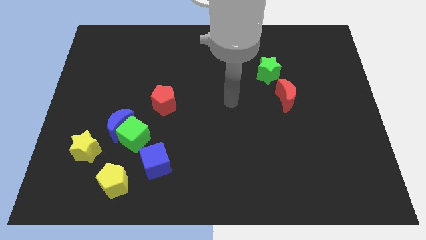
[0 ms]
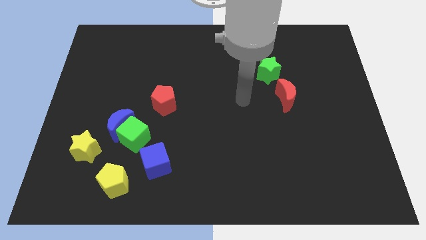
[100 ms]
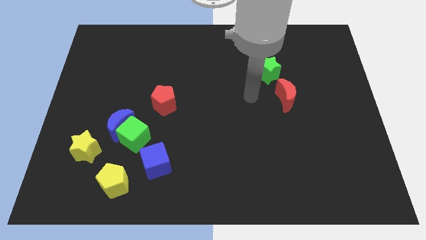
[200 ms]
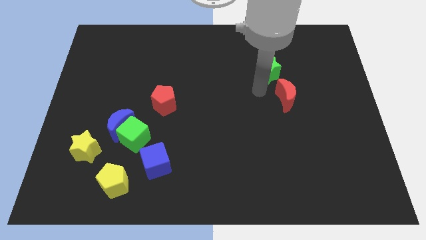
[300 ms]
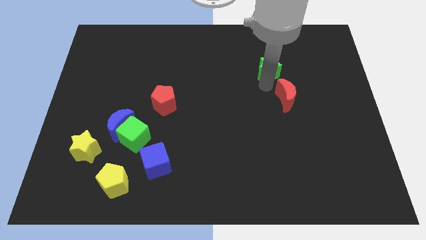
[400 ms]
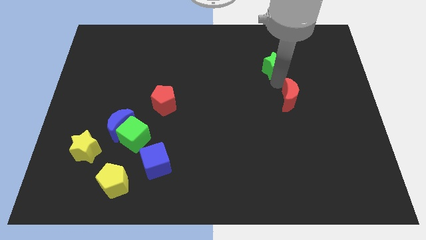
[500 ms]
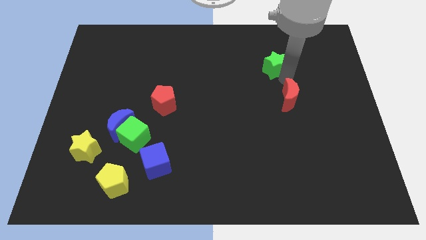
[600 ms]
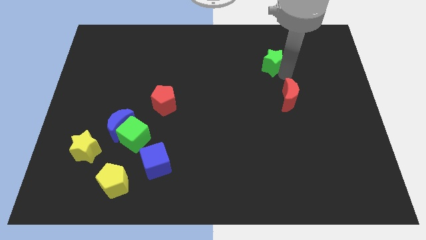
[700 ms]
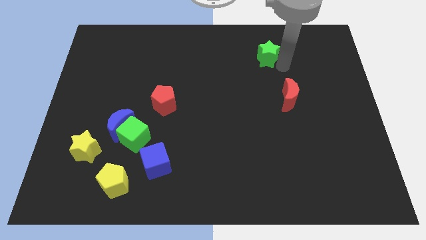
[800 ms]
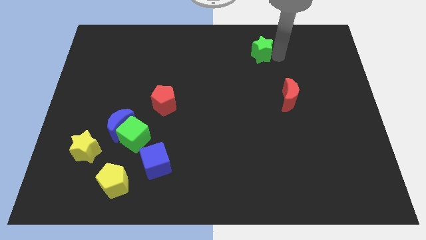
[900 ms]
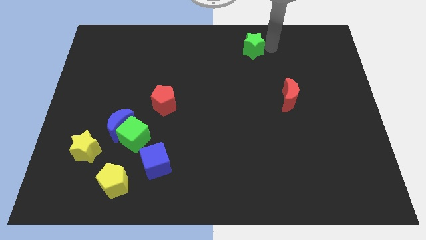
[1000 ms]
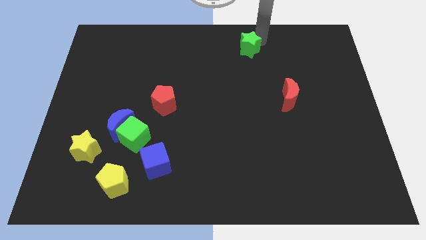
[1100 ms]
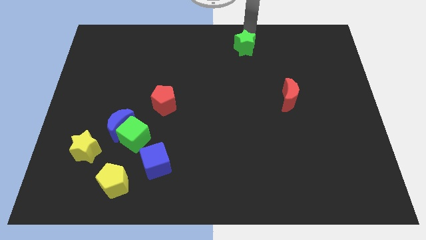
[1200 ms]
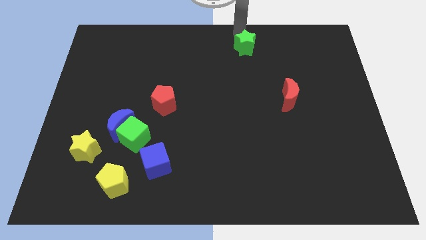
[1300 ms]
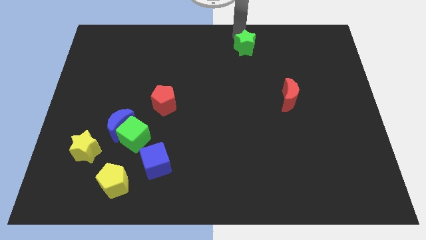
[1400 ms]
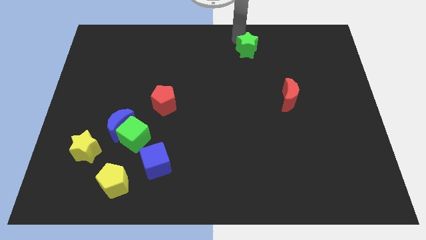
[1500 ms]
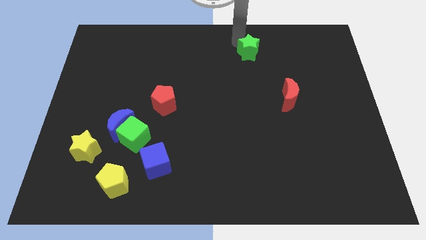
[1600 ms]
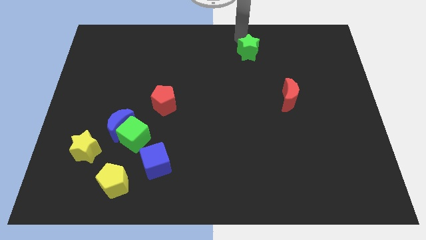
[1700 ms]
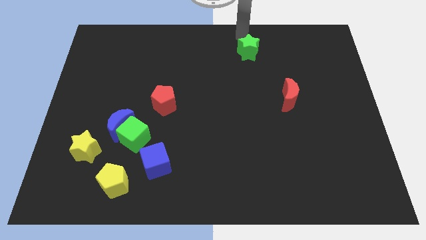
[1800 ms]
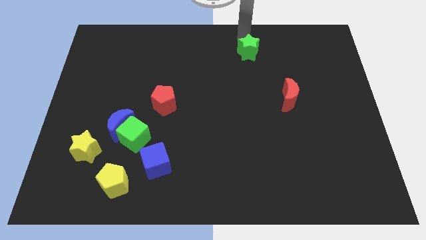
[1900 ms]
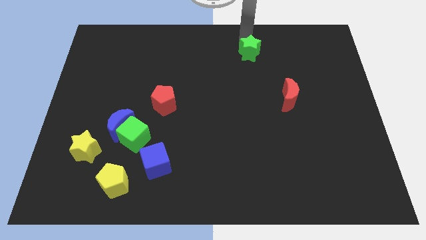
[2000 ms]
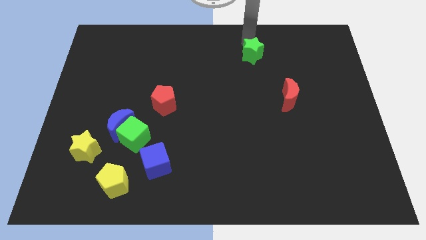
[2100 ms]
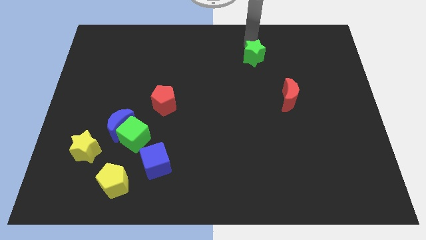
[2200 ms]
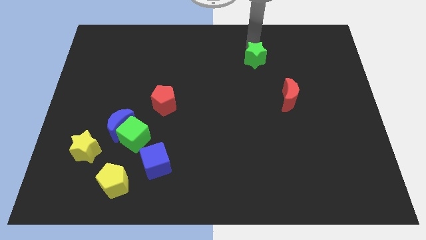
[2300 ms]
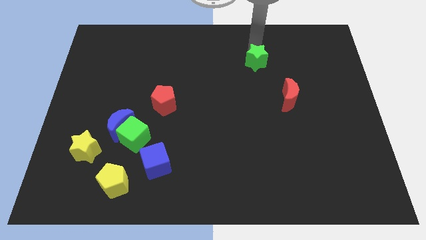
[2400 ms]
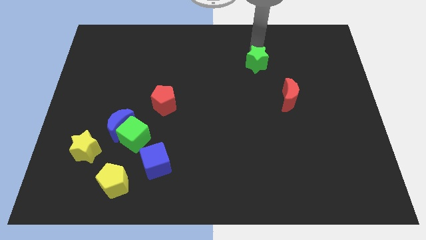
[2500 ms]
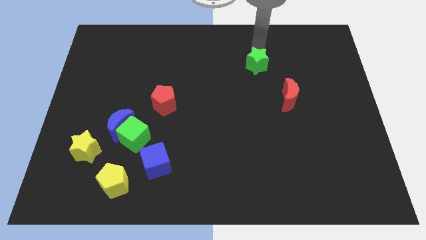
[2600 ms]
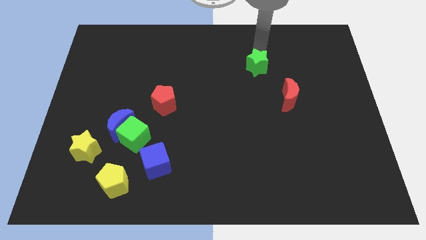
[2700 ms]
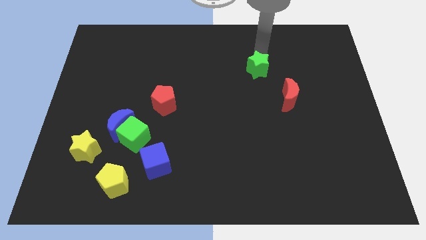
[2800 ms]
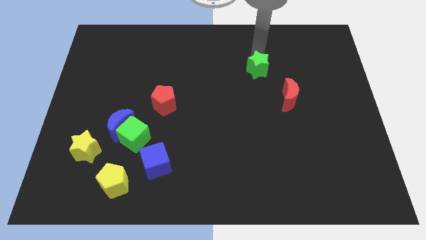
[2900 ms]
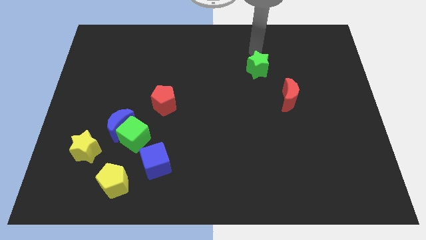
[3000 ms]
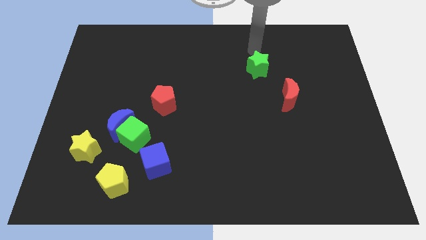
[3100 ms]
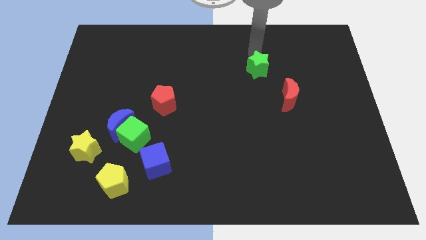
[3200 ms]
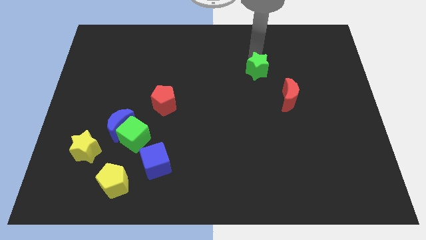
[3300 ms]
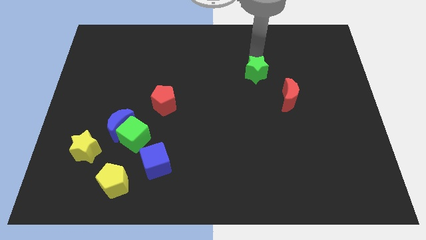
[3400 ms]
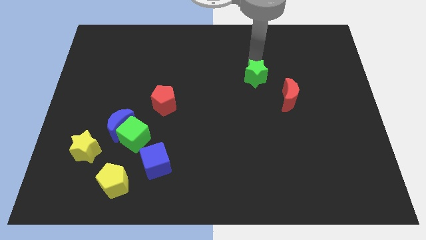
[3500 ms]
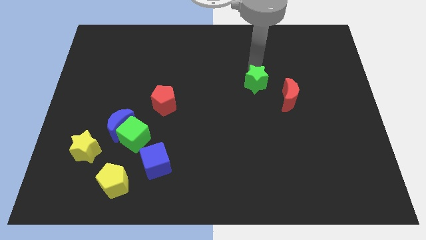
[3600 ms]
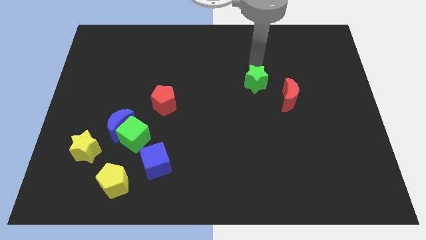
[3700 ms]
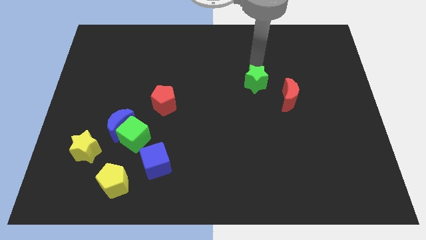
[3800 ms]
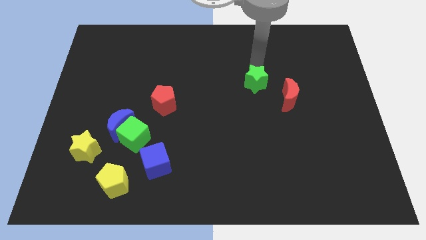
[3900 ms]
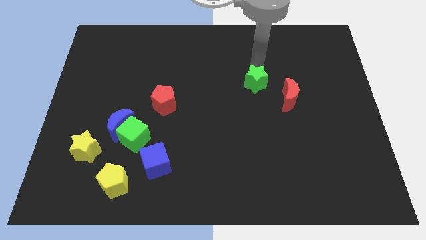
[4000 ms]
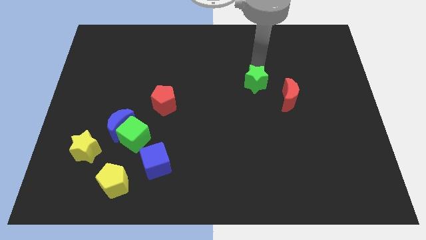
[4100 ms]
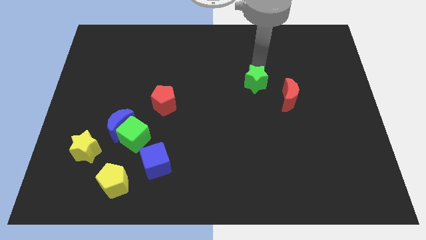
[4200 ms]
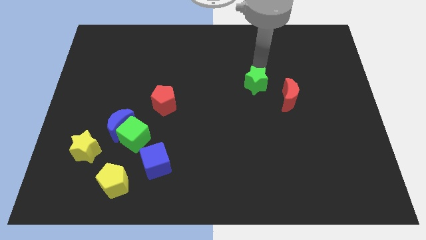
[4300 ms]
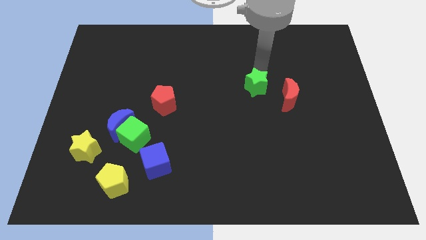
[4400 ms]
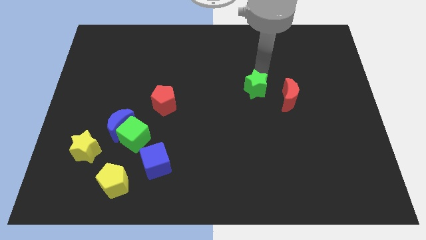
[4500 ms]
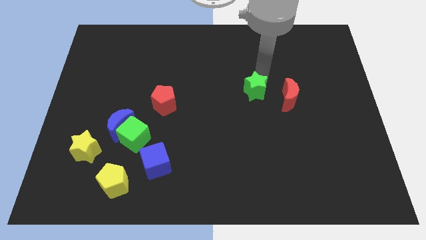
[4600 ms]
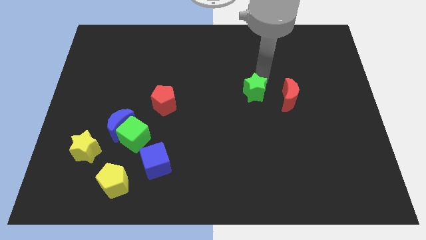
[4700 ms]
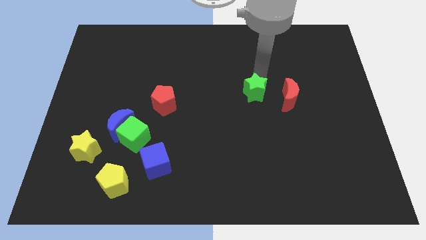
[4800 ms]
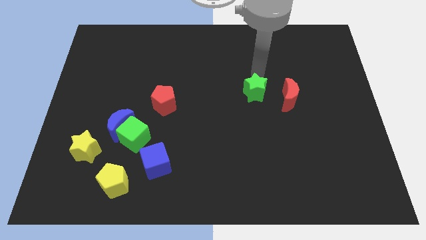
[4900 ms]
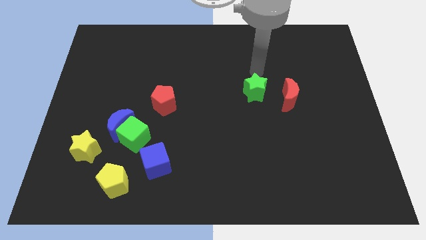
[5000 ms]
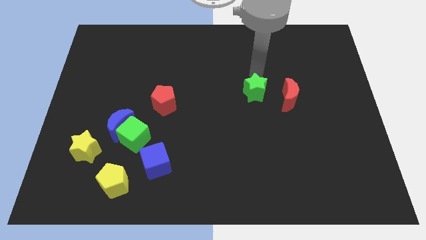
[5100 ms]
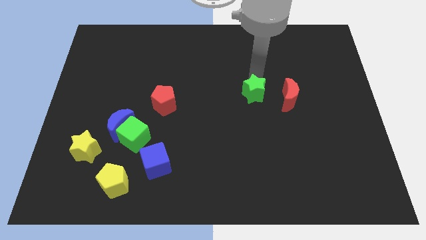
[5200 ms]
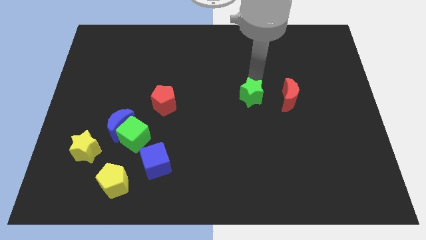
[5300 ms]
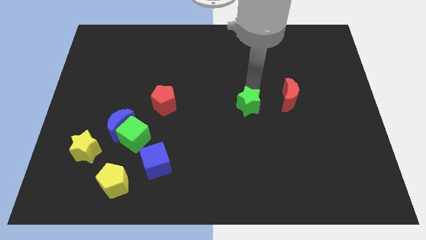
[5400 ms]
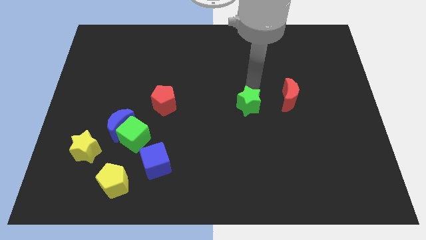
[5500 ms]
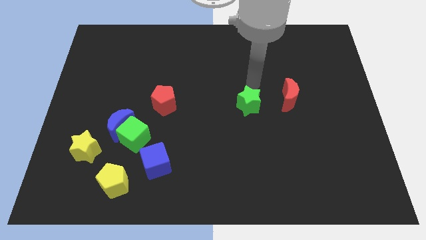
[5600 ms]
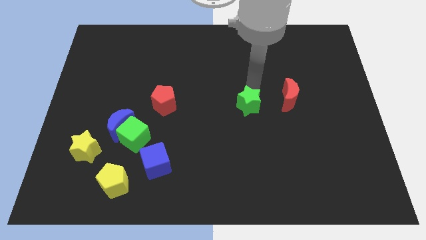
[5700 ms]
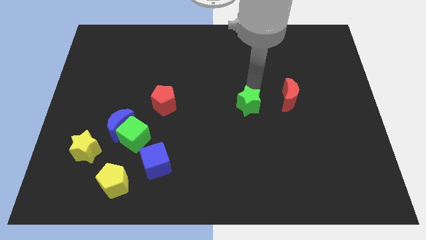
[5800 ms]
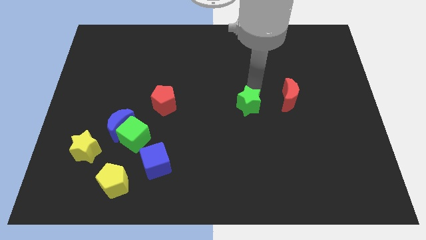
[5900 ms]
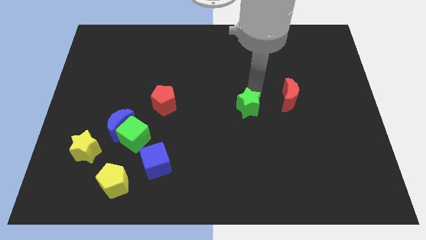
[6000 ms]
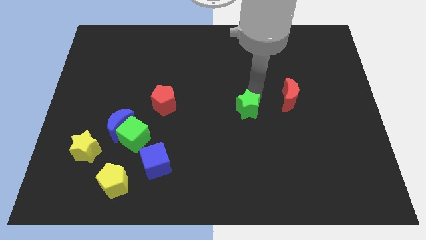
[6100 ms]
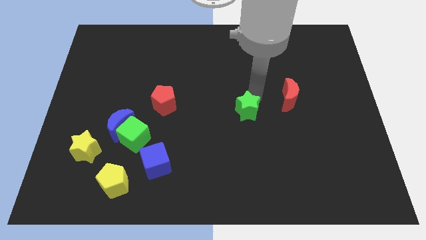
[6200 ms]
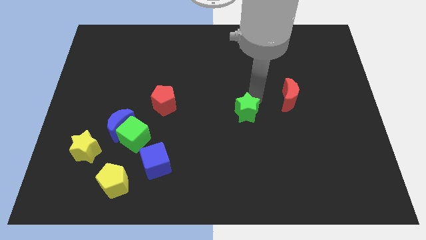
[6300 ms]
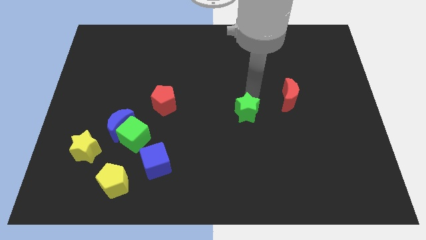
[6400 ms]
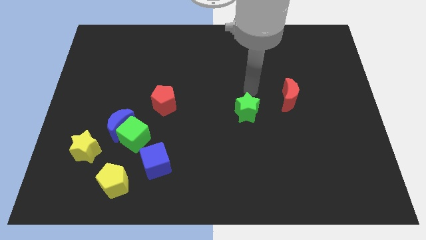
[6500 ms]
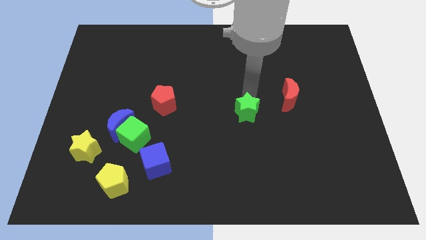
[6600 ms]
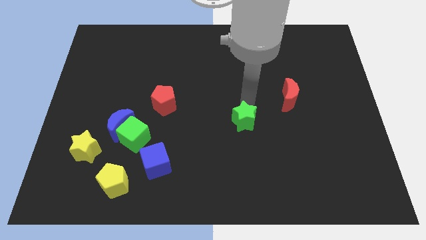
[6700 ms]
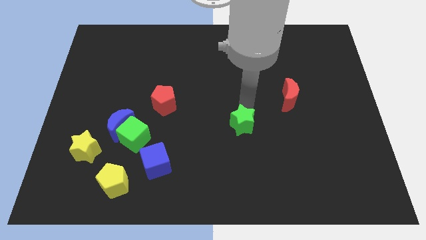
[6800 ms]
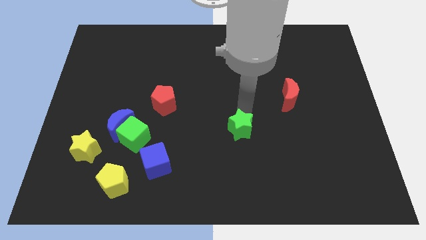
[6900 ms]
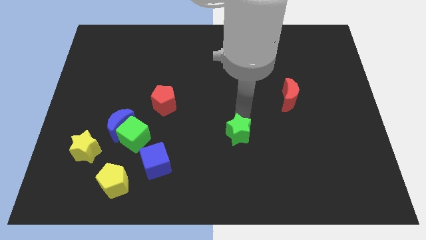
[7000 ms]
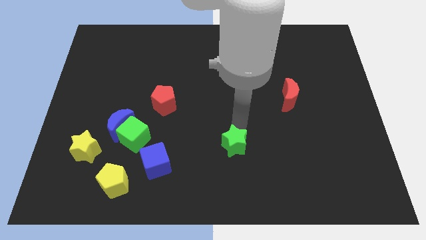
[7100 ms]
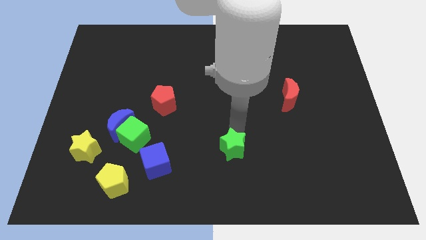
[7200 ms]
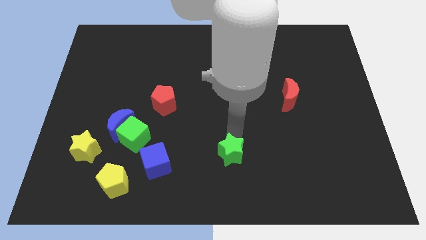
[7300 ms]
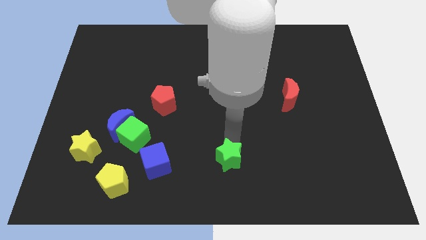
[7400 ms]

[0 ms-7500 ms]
move the green star to the bottom
